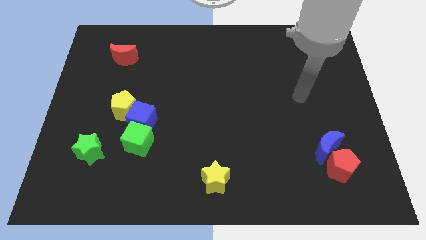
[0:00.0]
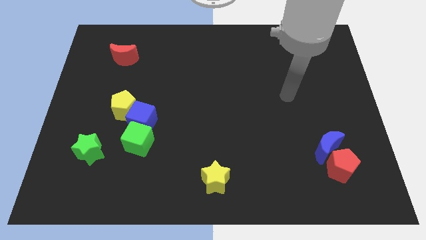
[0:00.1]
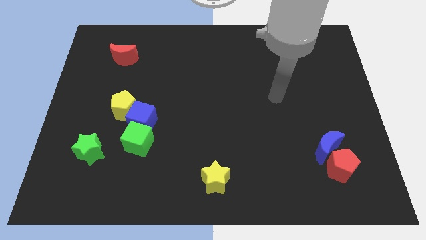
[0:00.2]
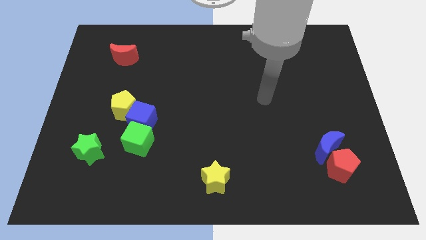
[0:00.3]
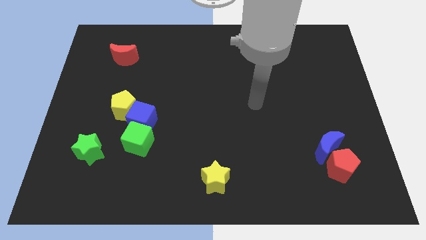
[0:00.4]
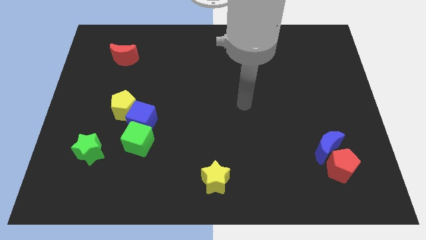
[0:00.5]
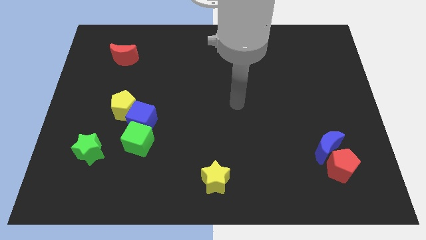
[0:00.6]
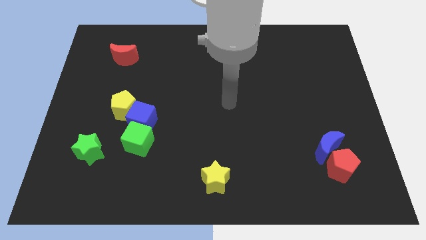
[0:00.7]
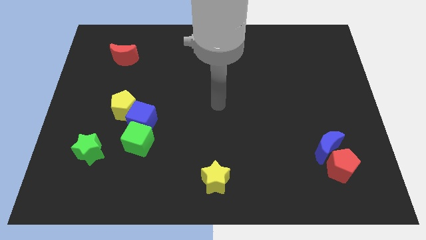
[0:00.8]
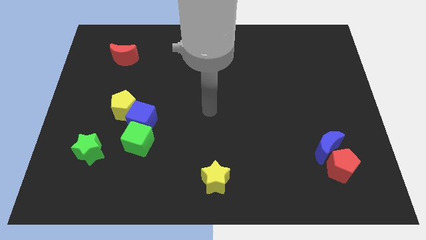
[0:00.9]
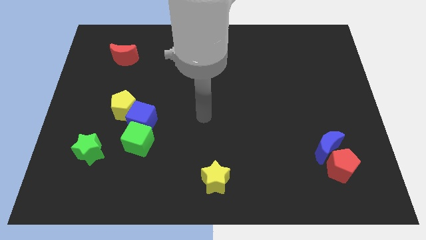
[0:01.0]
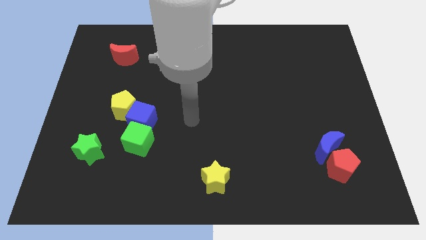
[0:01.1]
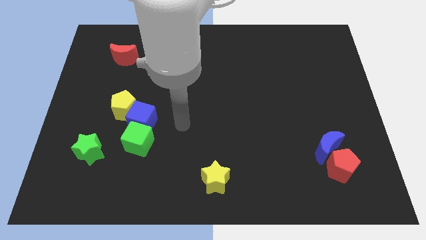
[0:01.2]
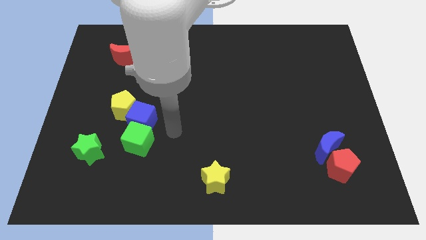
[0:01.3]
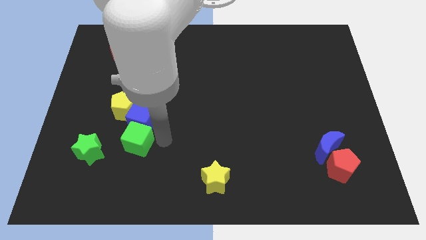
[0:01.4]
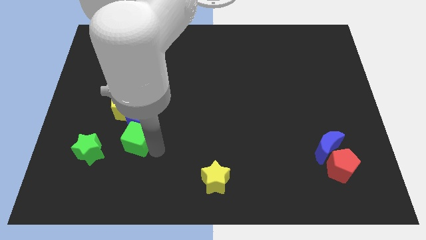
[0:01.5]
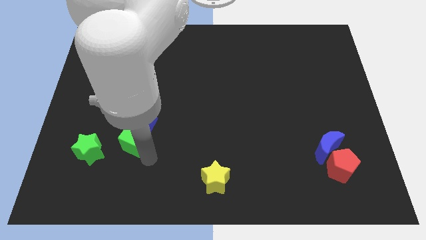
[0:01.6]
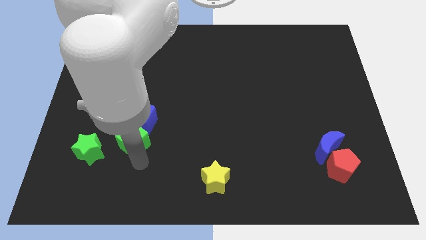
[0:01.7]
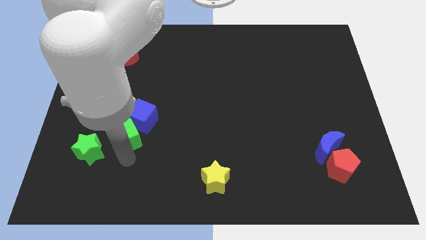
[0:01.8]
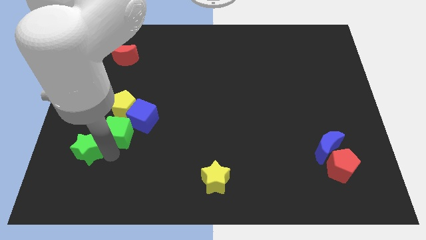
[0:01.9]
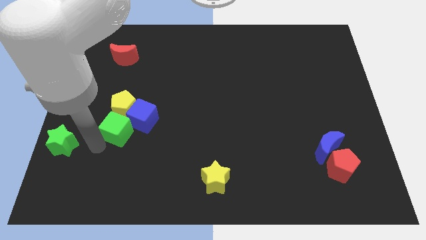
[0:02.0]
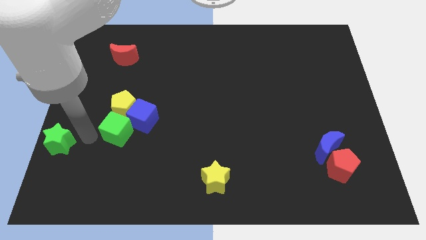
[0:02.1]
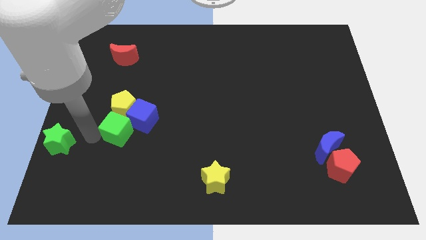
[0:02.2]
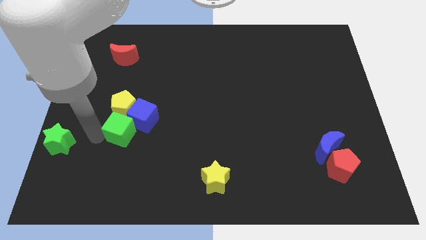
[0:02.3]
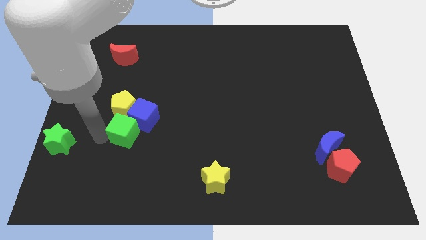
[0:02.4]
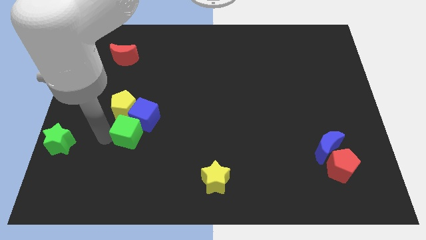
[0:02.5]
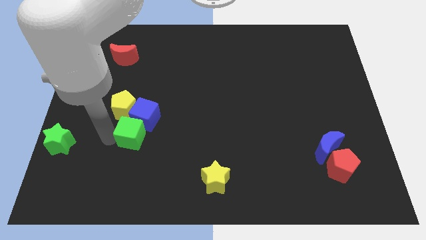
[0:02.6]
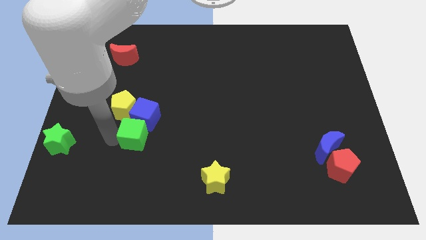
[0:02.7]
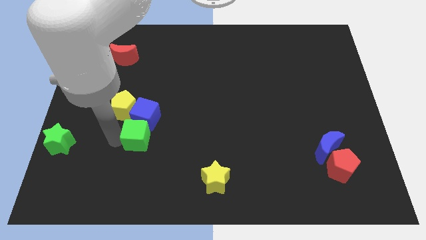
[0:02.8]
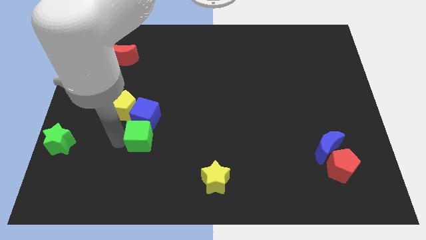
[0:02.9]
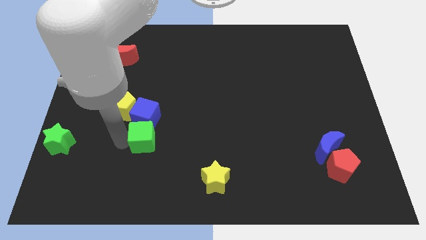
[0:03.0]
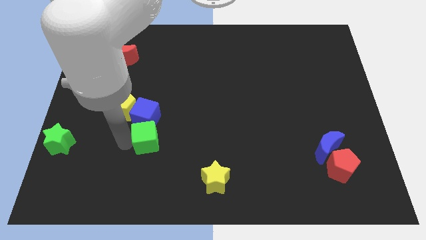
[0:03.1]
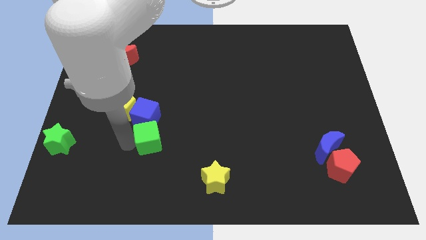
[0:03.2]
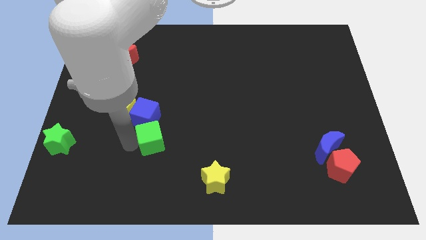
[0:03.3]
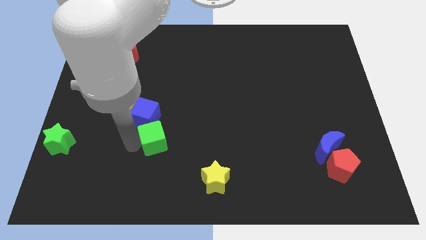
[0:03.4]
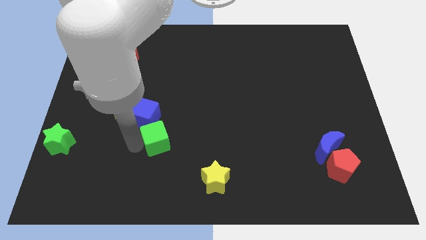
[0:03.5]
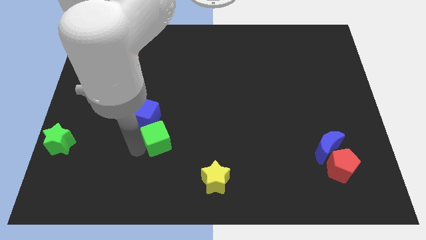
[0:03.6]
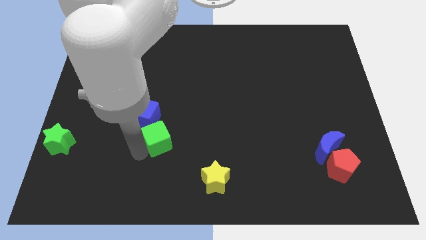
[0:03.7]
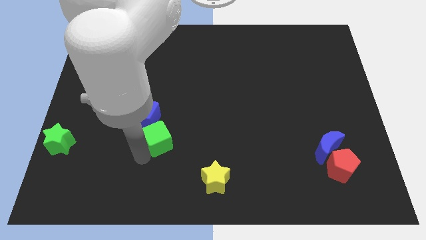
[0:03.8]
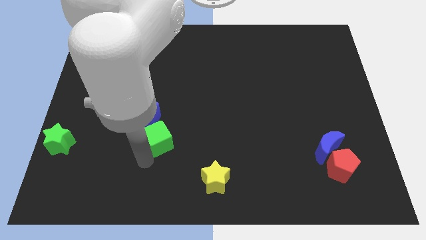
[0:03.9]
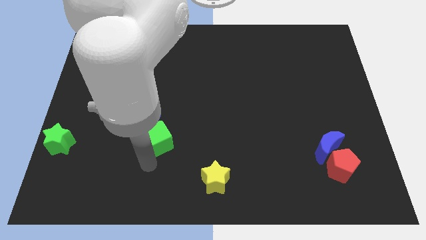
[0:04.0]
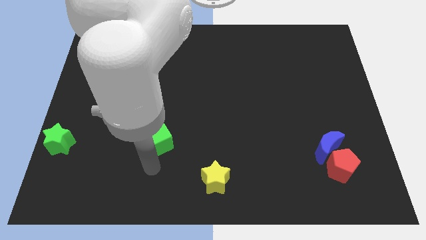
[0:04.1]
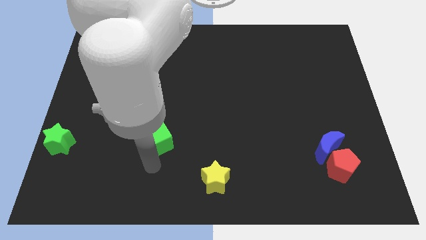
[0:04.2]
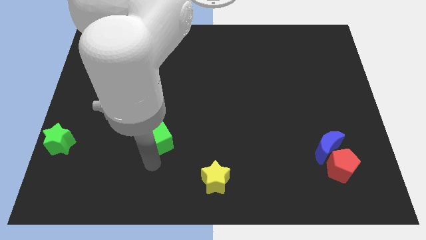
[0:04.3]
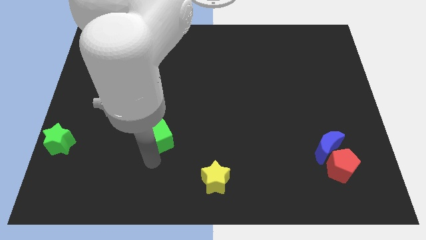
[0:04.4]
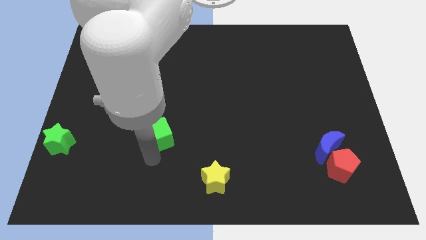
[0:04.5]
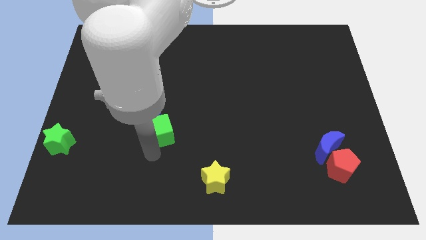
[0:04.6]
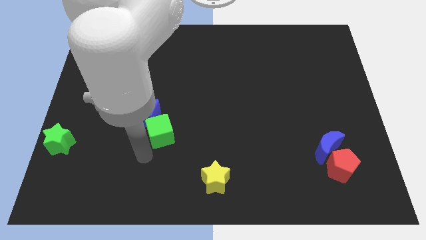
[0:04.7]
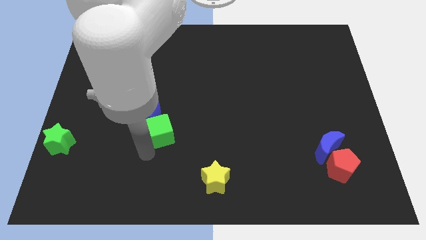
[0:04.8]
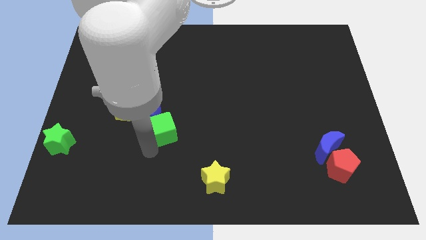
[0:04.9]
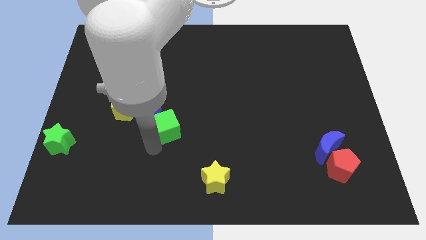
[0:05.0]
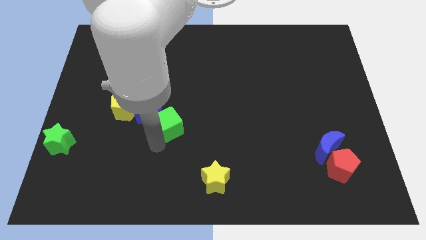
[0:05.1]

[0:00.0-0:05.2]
slightly slide the green cube upwards and right

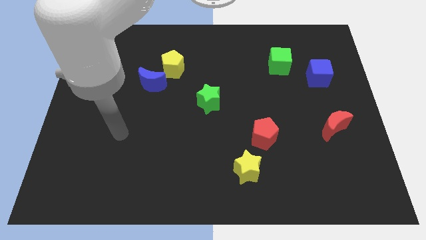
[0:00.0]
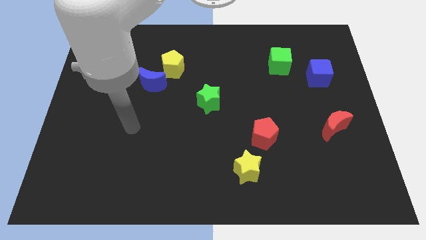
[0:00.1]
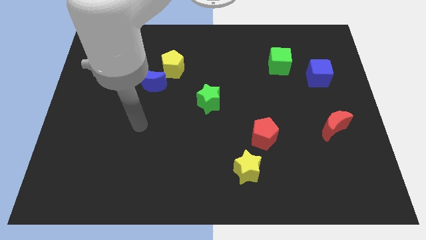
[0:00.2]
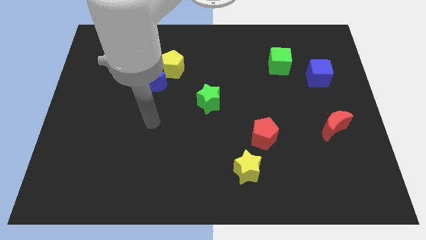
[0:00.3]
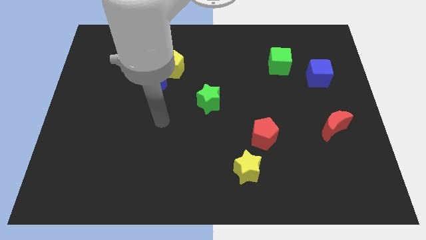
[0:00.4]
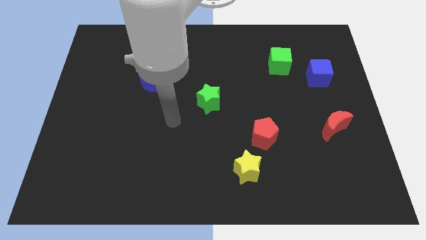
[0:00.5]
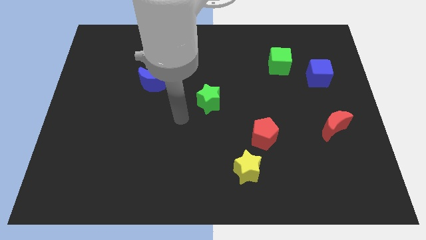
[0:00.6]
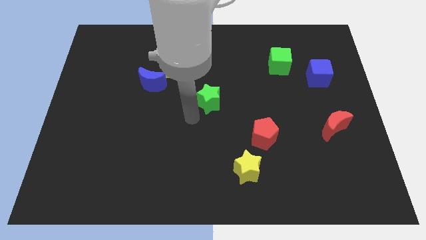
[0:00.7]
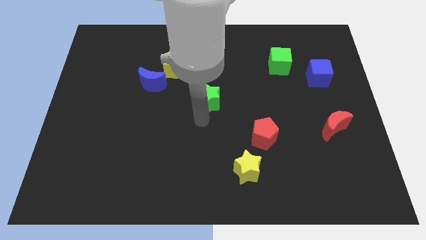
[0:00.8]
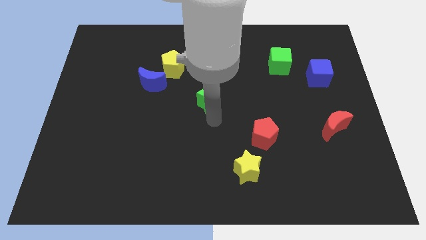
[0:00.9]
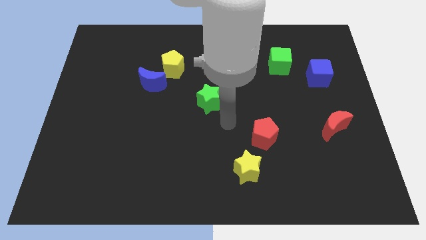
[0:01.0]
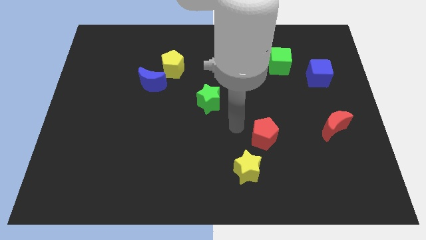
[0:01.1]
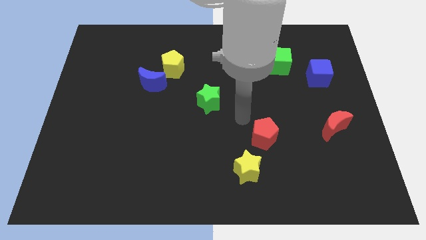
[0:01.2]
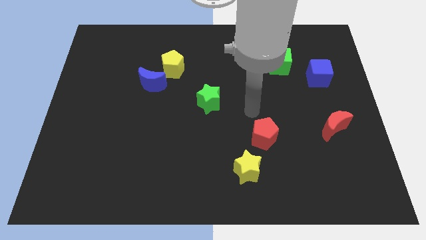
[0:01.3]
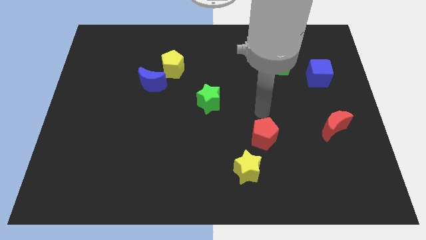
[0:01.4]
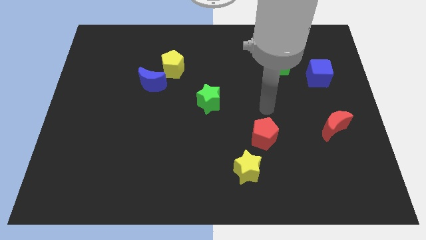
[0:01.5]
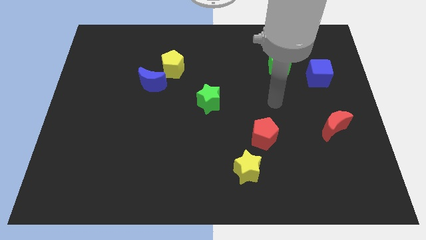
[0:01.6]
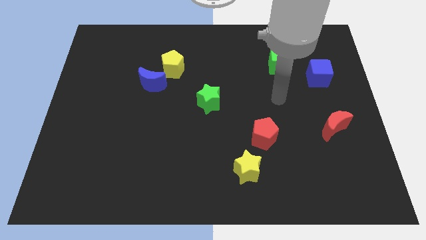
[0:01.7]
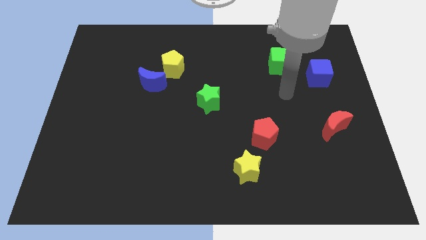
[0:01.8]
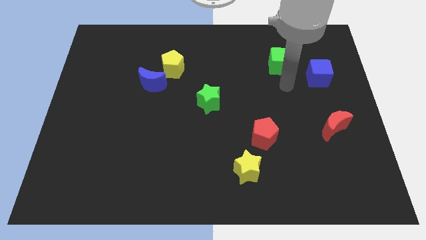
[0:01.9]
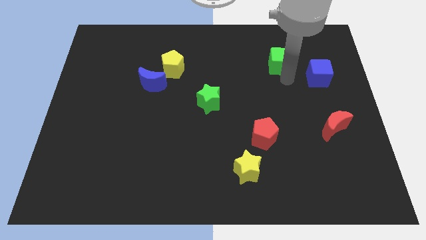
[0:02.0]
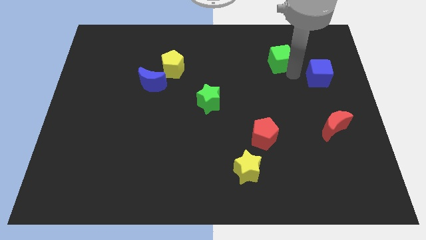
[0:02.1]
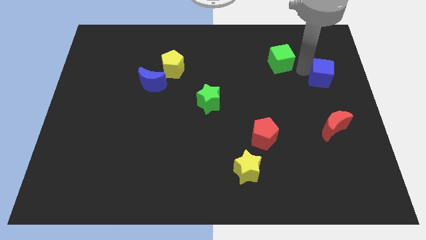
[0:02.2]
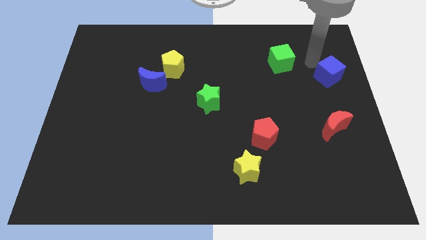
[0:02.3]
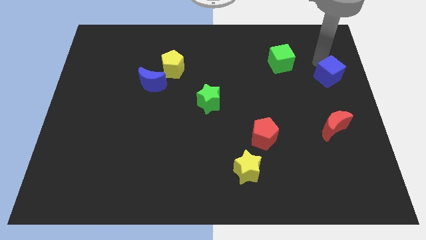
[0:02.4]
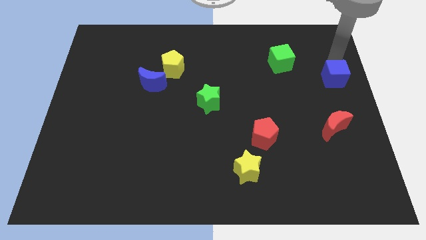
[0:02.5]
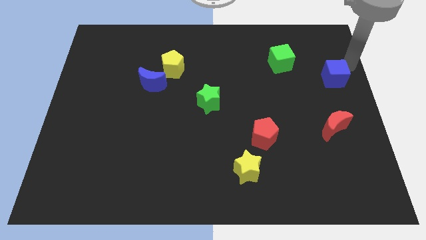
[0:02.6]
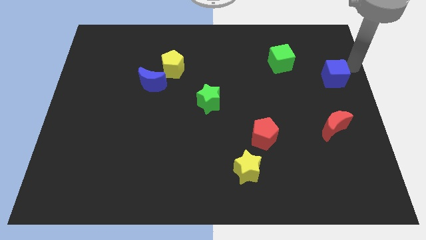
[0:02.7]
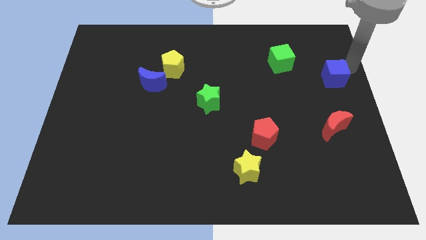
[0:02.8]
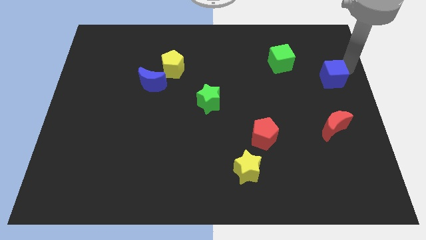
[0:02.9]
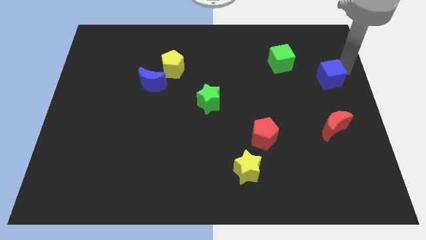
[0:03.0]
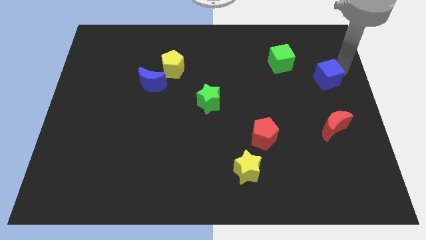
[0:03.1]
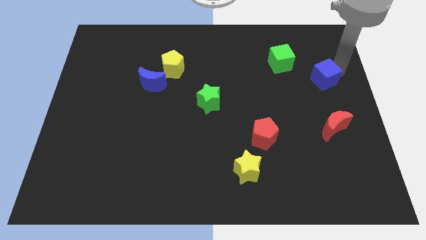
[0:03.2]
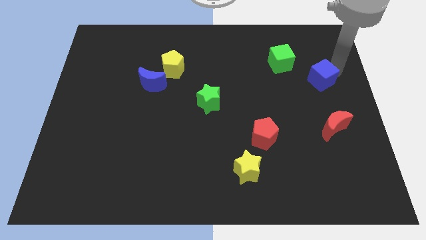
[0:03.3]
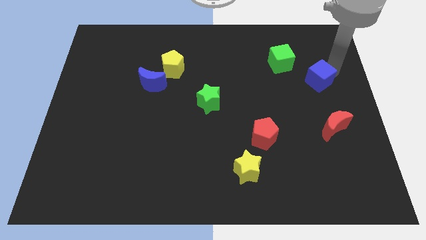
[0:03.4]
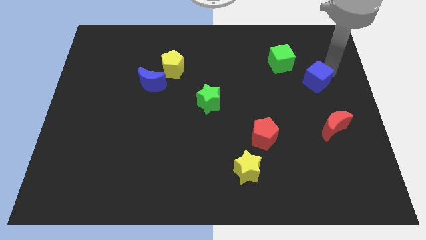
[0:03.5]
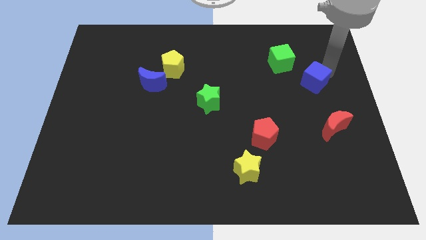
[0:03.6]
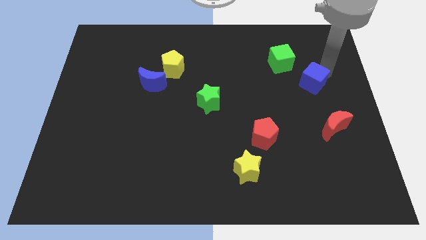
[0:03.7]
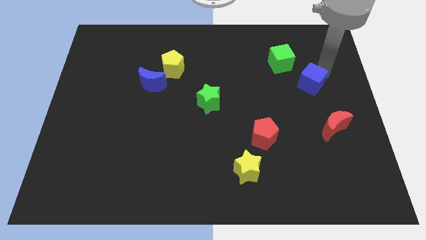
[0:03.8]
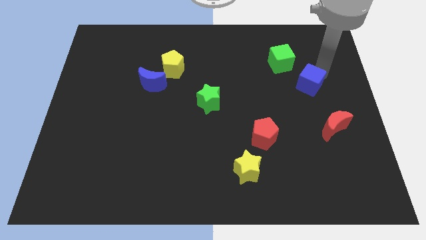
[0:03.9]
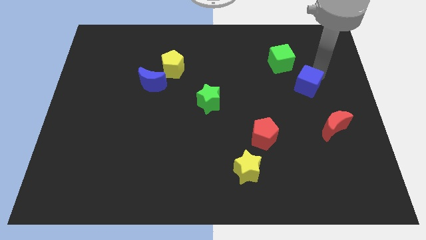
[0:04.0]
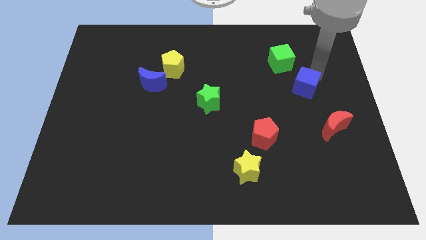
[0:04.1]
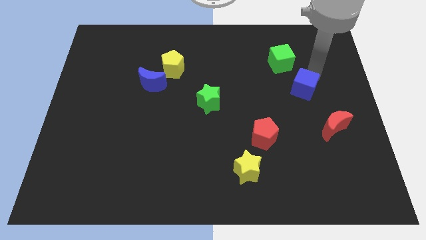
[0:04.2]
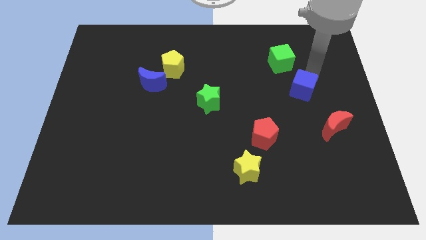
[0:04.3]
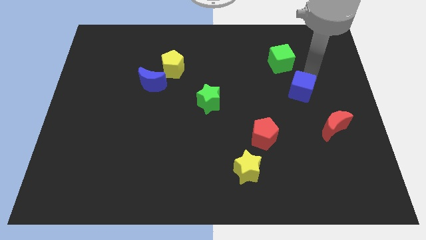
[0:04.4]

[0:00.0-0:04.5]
push the blue cube down and then to the left a little
